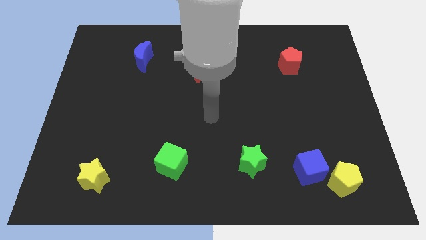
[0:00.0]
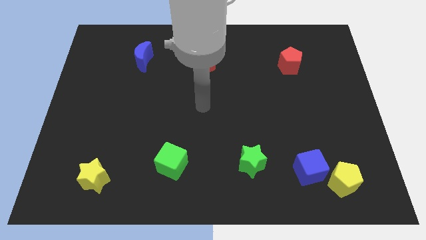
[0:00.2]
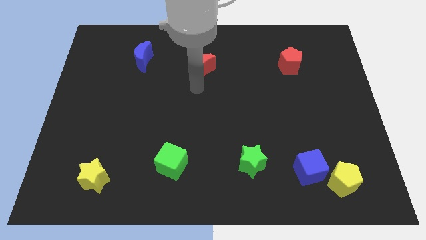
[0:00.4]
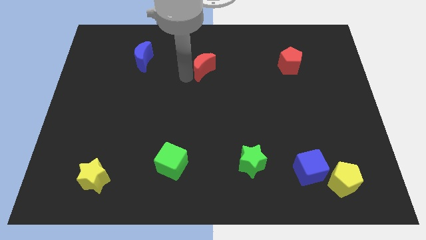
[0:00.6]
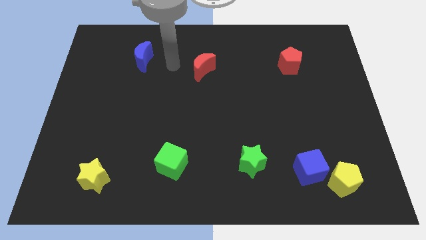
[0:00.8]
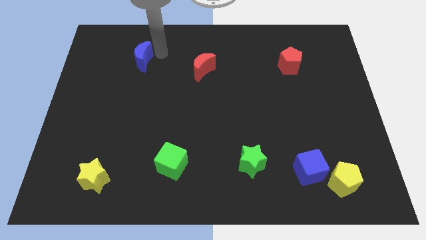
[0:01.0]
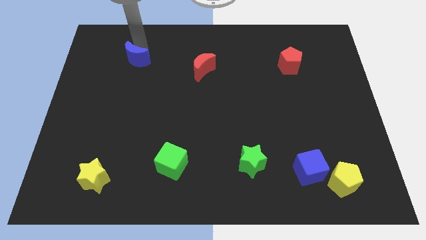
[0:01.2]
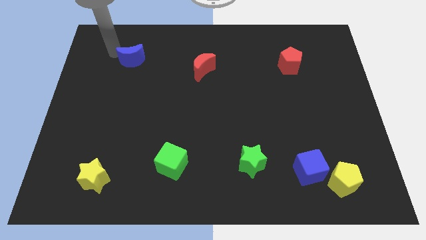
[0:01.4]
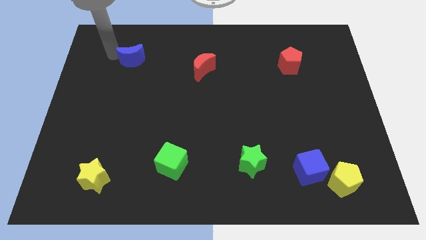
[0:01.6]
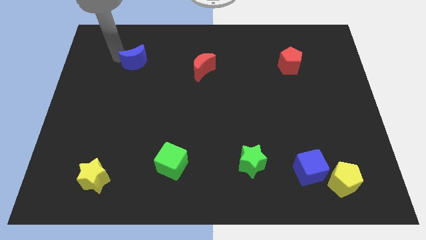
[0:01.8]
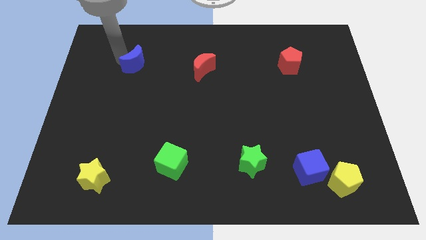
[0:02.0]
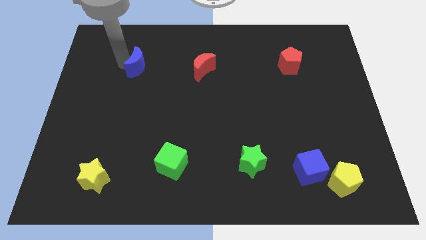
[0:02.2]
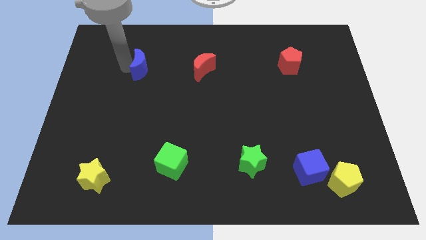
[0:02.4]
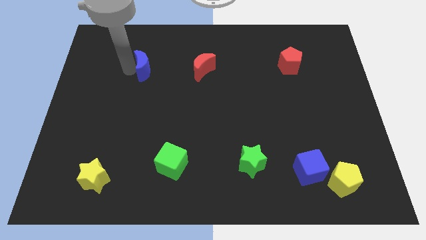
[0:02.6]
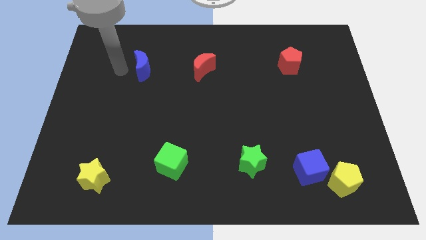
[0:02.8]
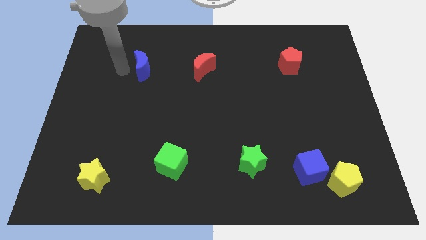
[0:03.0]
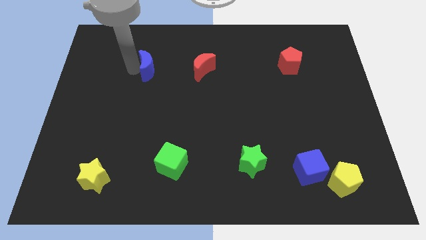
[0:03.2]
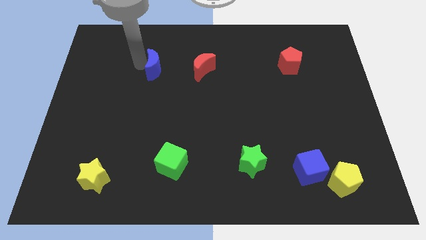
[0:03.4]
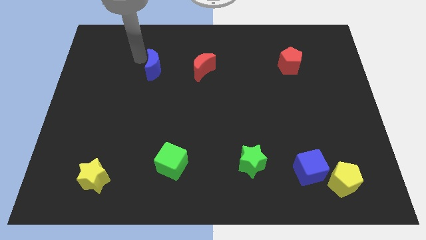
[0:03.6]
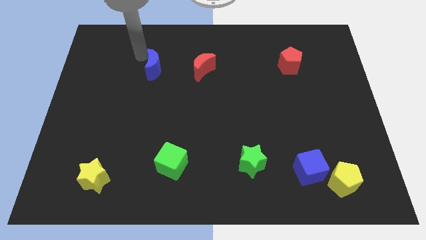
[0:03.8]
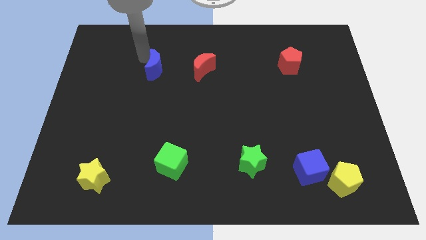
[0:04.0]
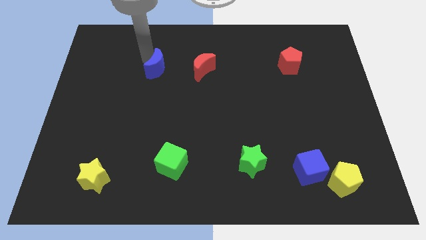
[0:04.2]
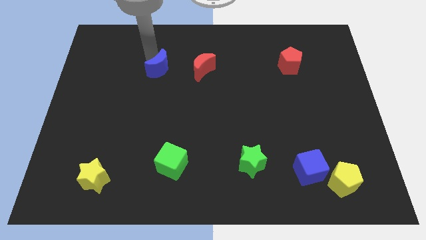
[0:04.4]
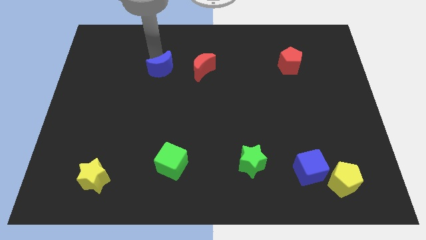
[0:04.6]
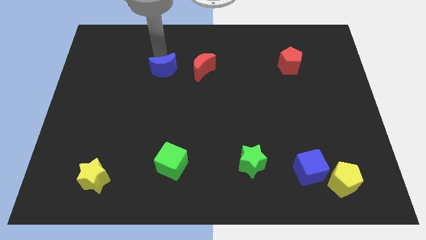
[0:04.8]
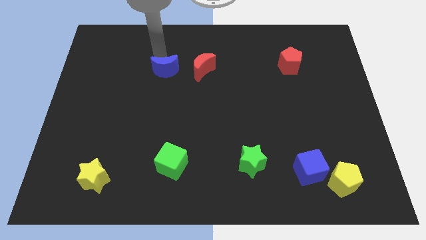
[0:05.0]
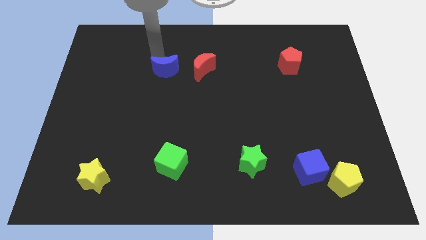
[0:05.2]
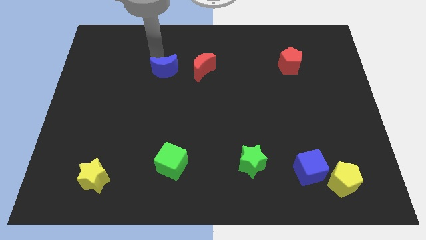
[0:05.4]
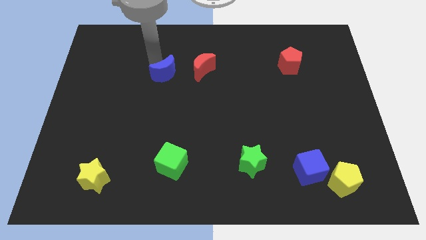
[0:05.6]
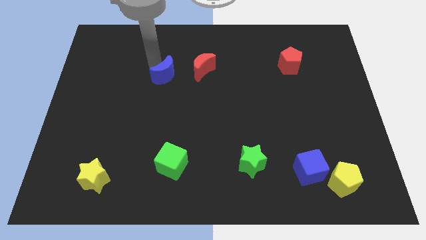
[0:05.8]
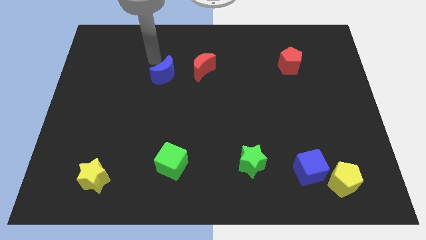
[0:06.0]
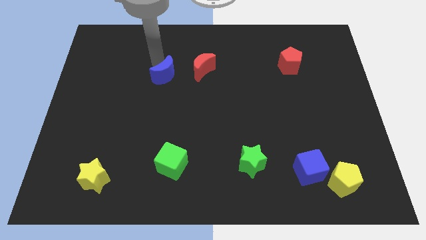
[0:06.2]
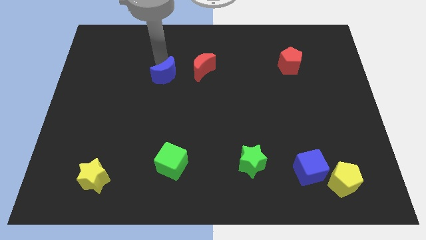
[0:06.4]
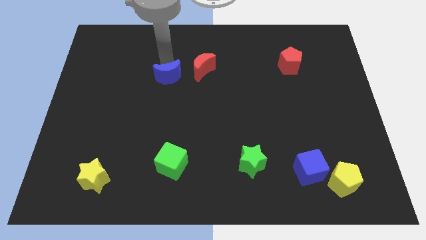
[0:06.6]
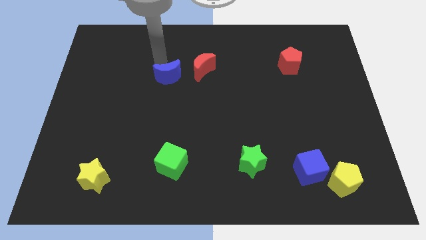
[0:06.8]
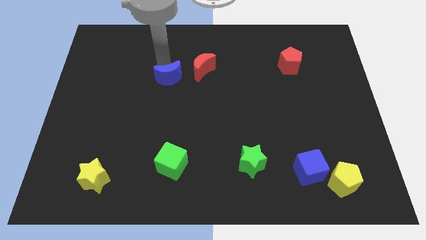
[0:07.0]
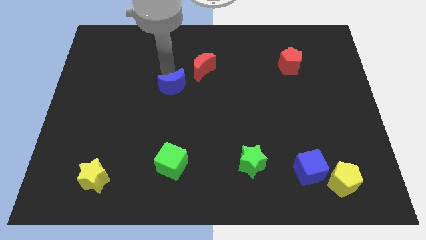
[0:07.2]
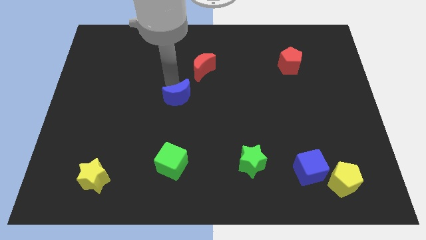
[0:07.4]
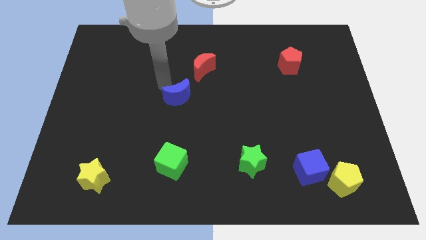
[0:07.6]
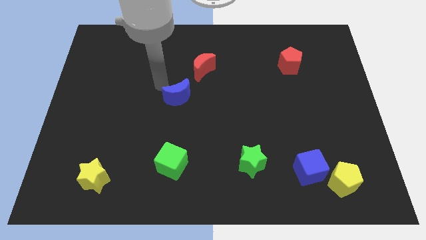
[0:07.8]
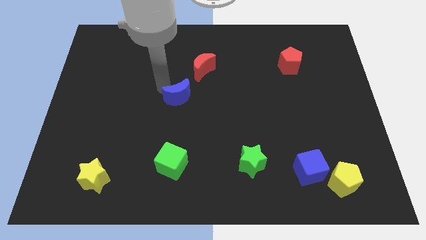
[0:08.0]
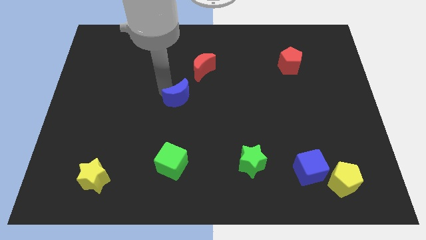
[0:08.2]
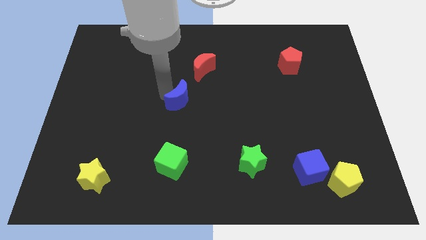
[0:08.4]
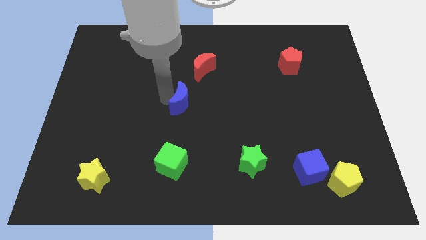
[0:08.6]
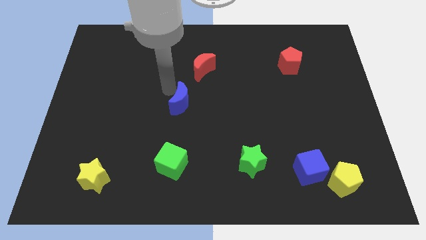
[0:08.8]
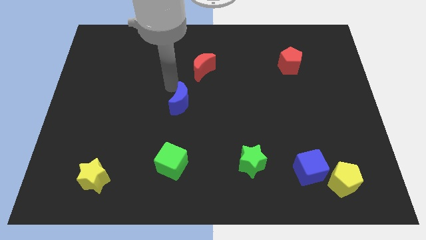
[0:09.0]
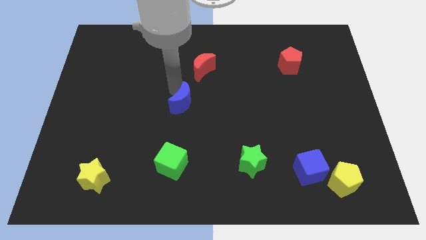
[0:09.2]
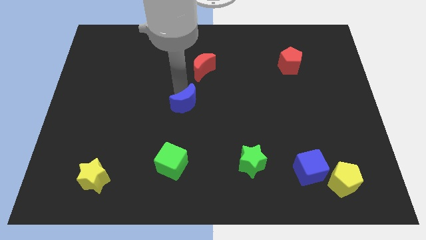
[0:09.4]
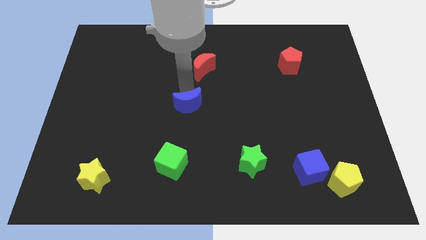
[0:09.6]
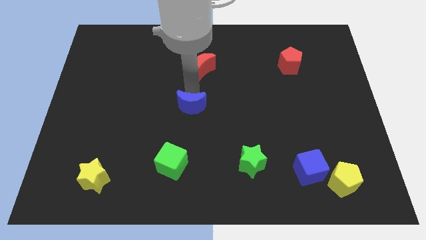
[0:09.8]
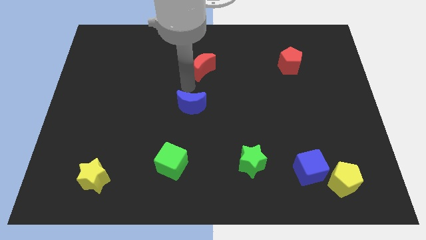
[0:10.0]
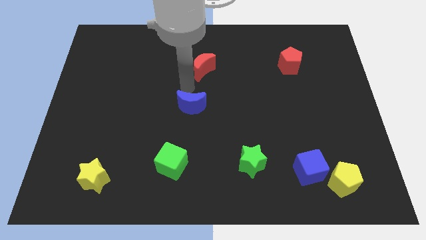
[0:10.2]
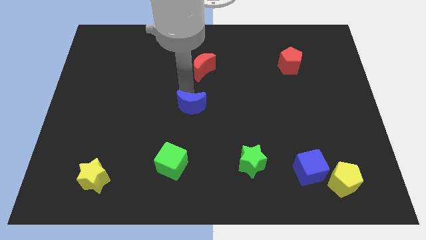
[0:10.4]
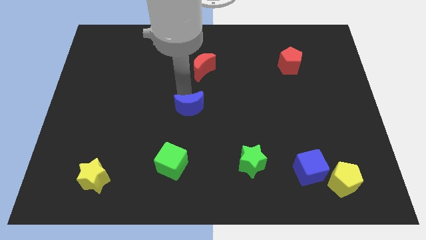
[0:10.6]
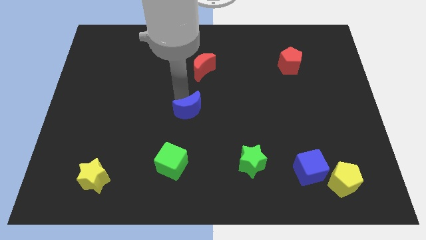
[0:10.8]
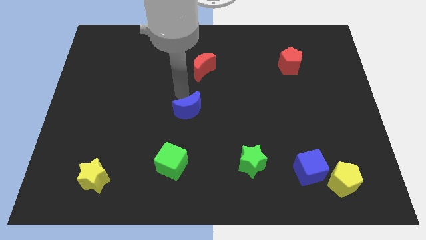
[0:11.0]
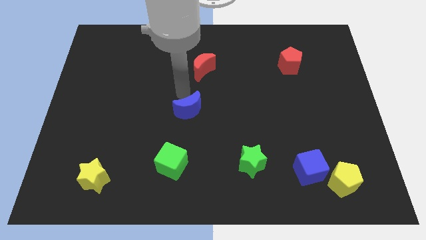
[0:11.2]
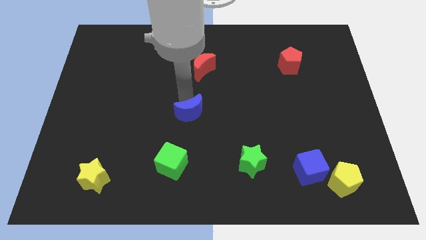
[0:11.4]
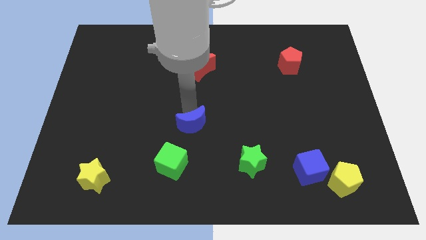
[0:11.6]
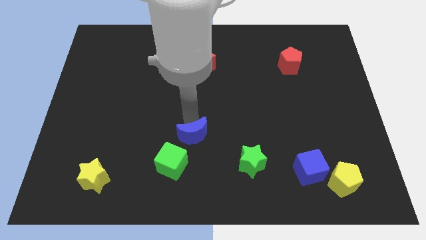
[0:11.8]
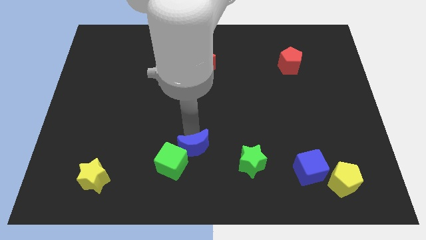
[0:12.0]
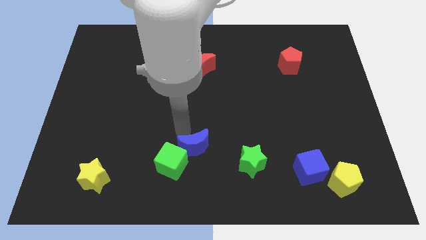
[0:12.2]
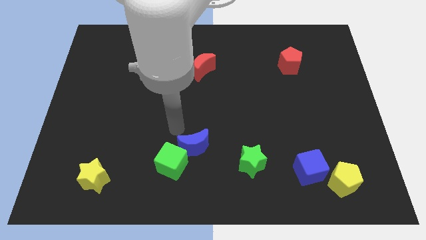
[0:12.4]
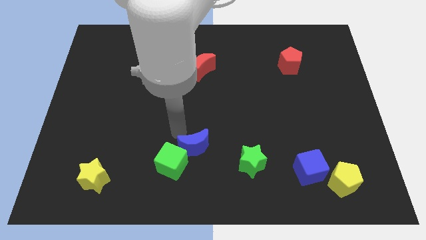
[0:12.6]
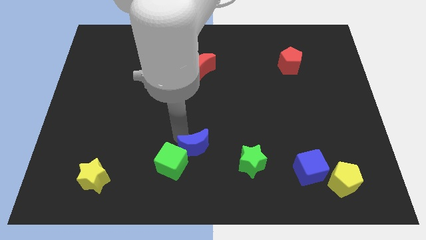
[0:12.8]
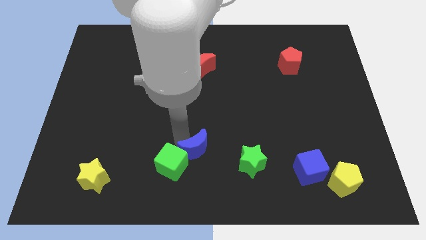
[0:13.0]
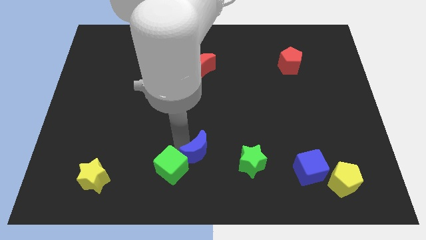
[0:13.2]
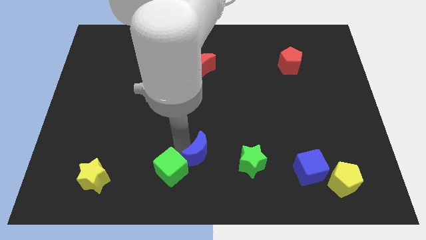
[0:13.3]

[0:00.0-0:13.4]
move the blue moon to the bottom

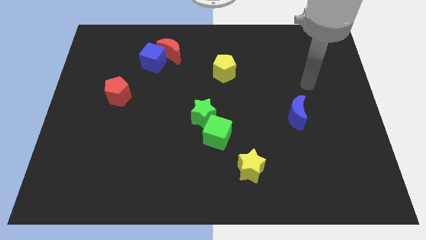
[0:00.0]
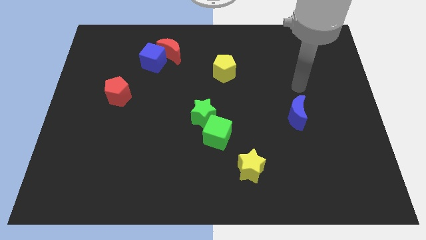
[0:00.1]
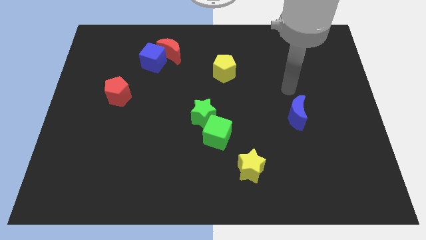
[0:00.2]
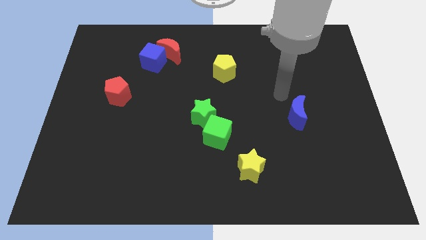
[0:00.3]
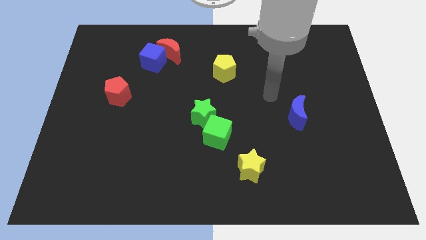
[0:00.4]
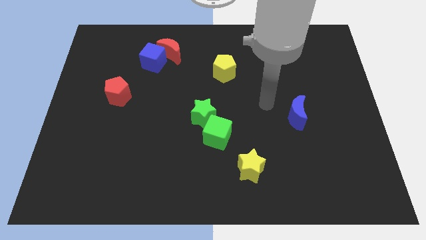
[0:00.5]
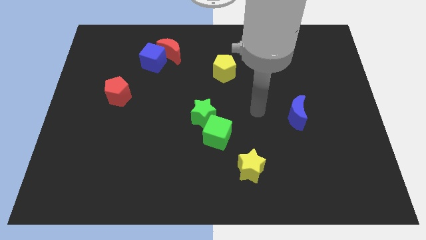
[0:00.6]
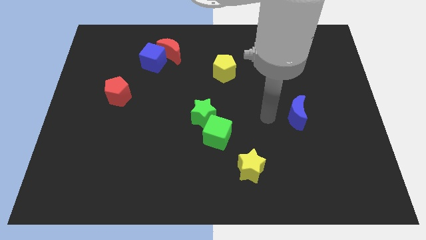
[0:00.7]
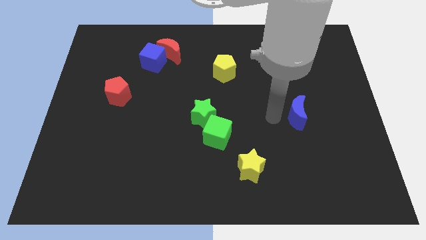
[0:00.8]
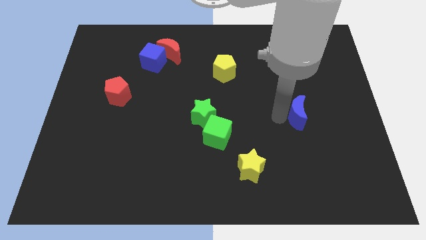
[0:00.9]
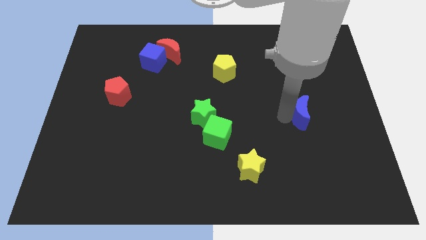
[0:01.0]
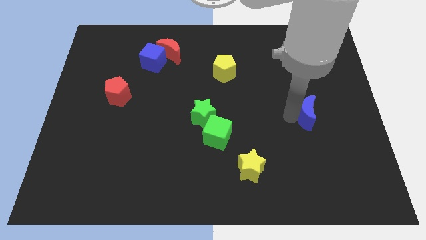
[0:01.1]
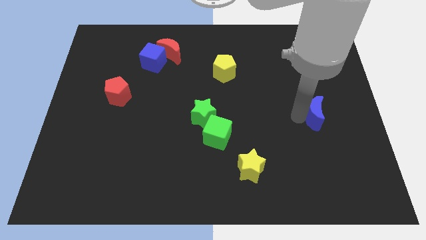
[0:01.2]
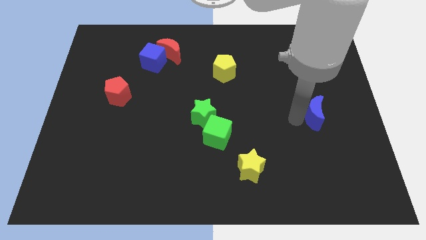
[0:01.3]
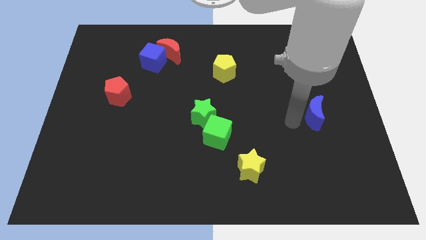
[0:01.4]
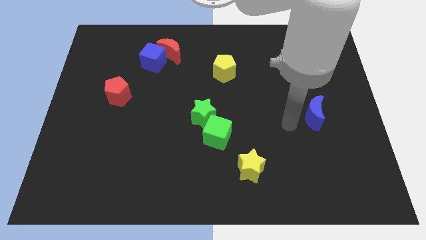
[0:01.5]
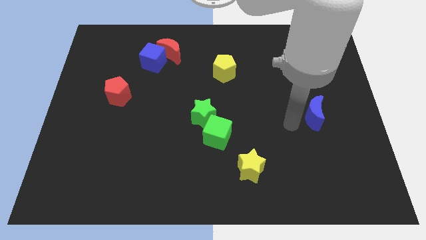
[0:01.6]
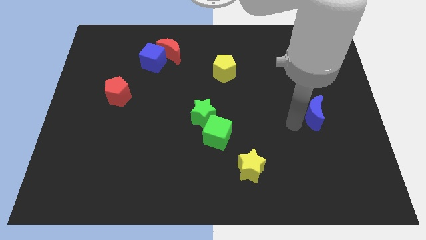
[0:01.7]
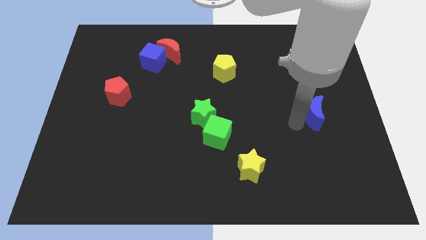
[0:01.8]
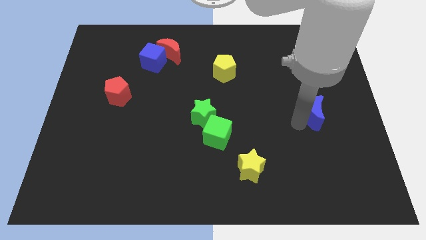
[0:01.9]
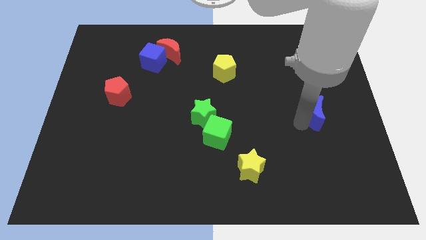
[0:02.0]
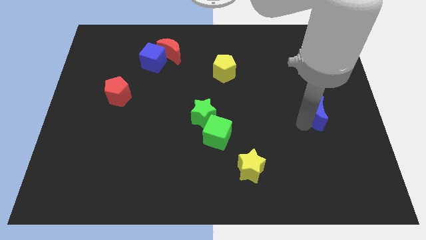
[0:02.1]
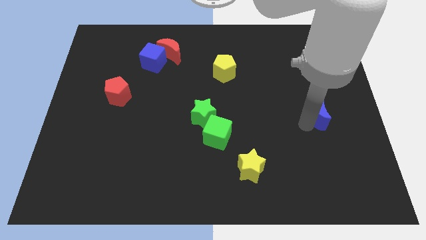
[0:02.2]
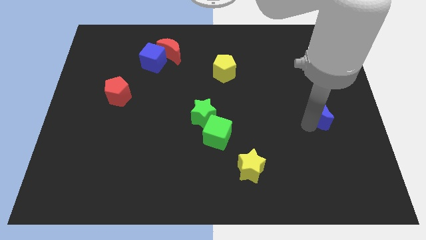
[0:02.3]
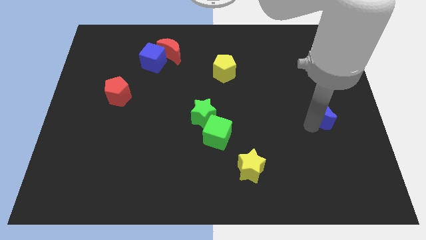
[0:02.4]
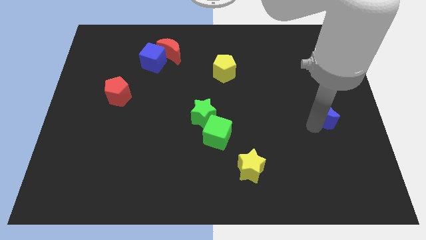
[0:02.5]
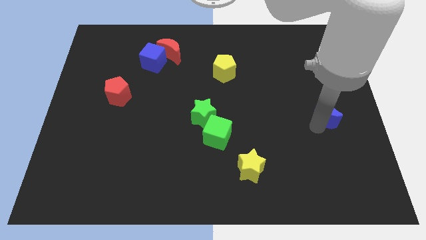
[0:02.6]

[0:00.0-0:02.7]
put the blue moon to the center right
